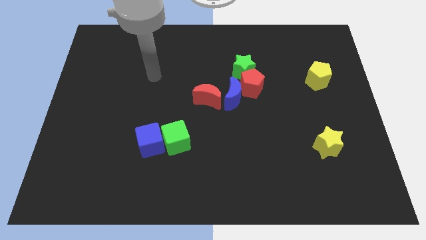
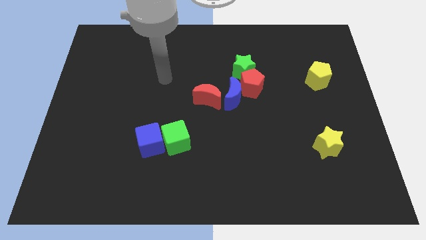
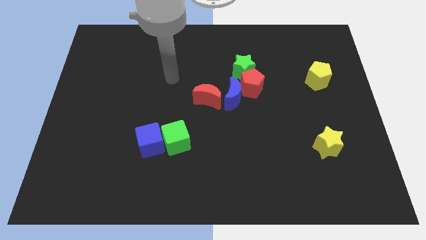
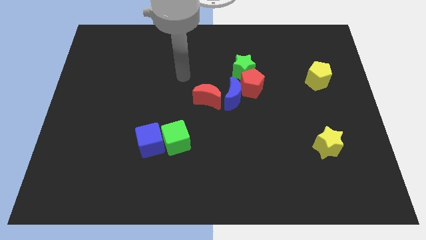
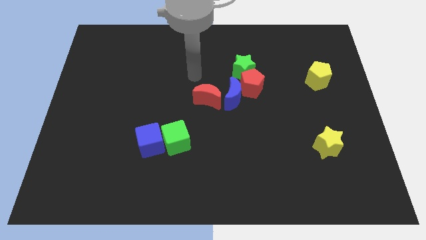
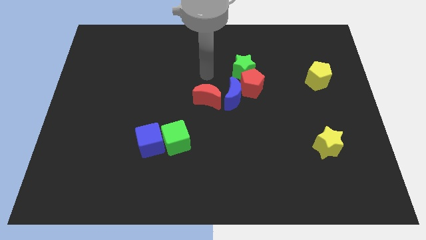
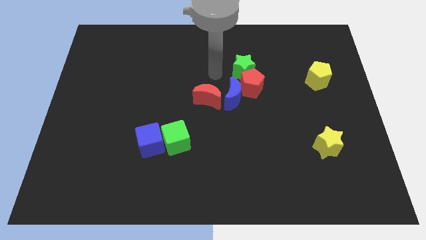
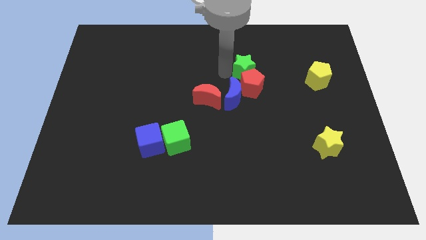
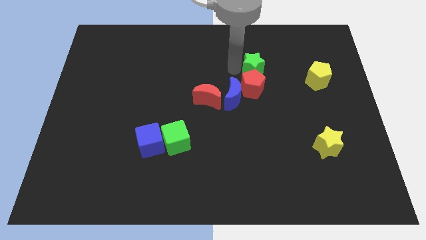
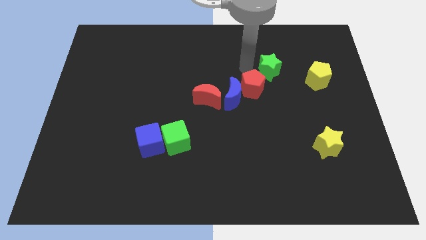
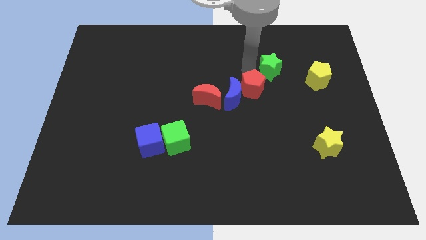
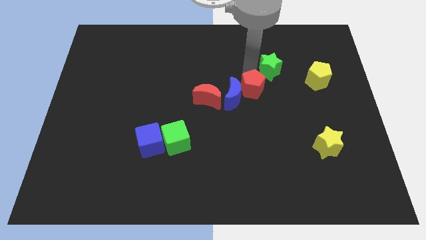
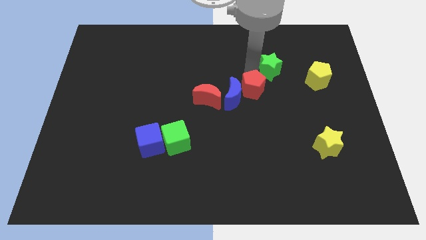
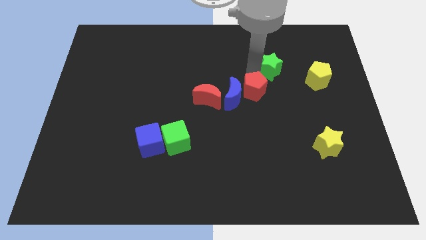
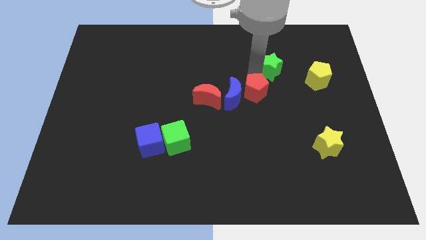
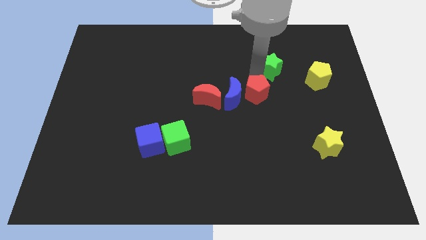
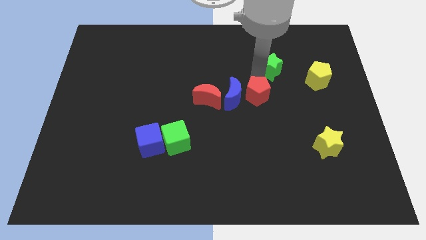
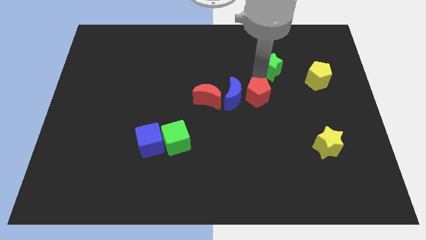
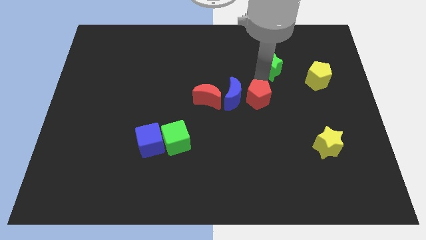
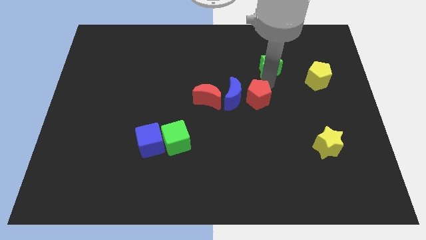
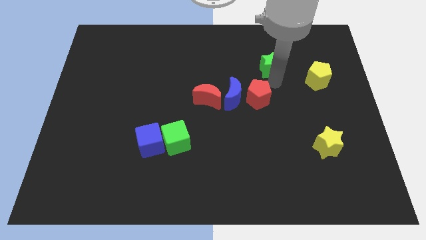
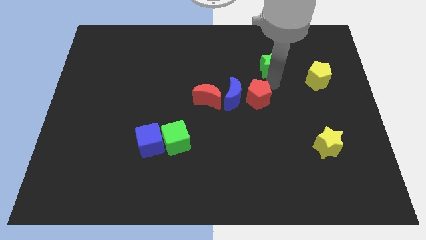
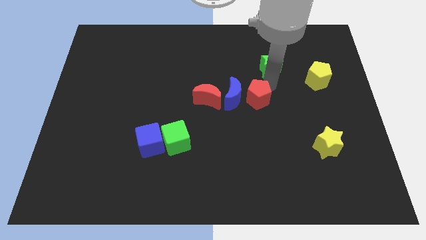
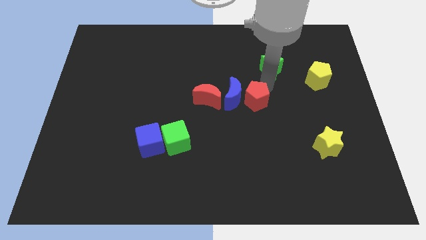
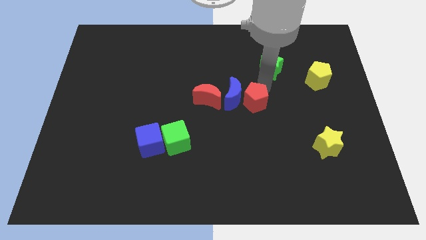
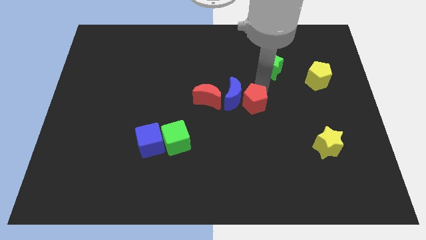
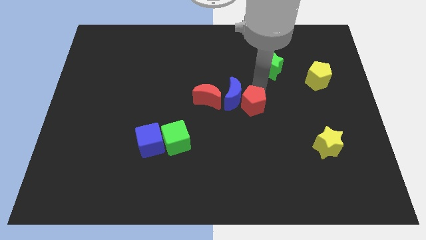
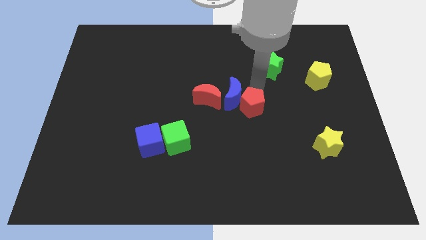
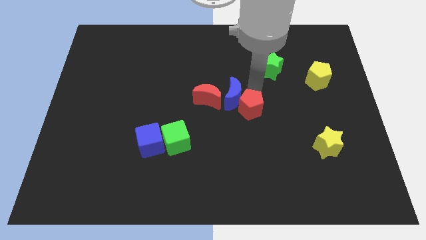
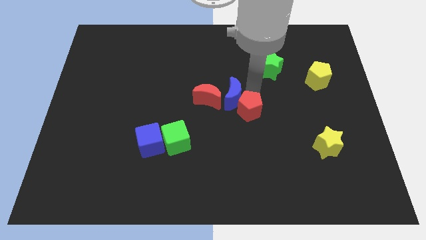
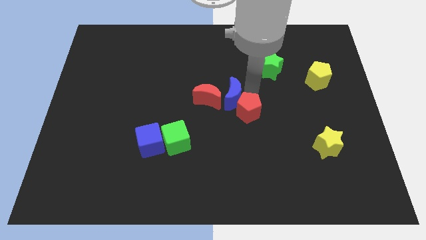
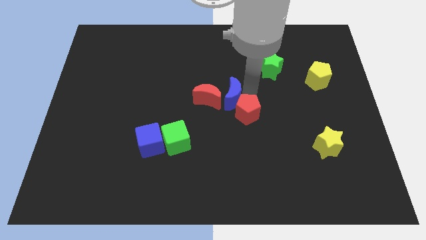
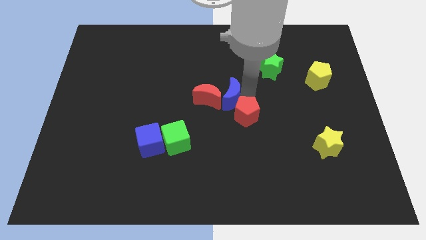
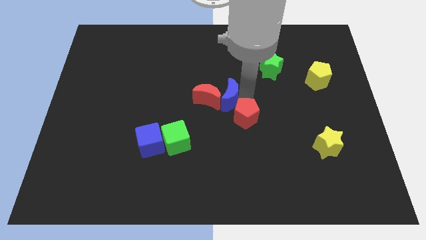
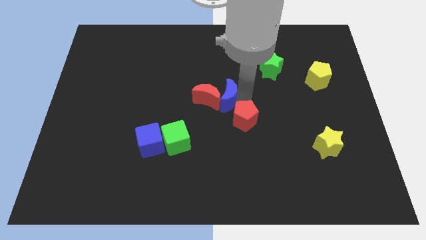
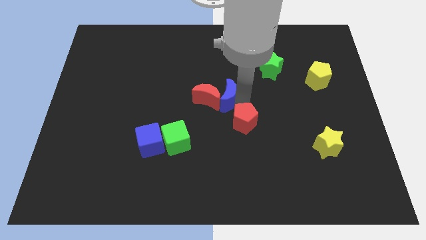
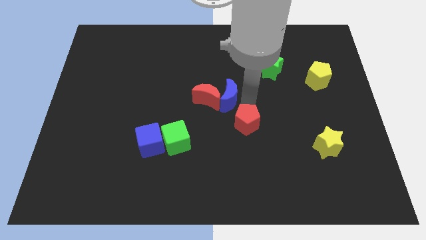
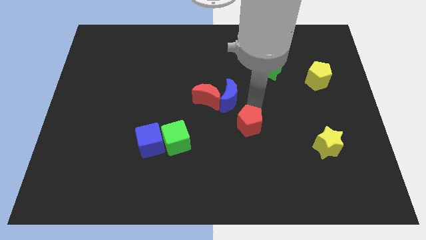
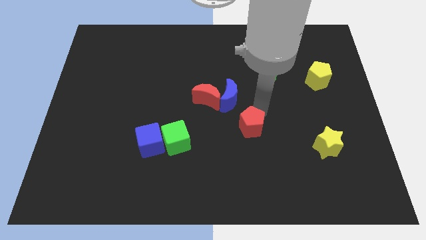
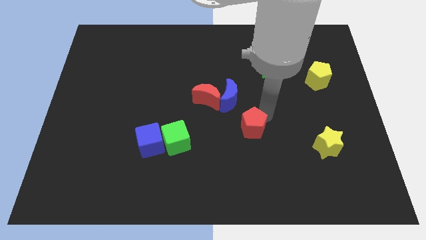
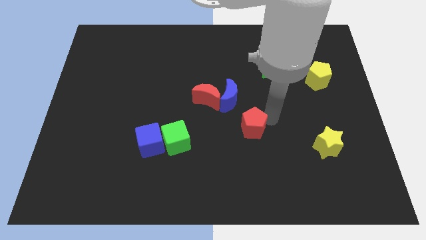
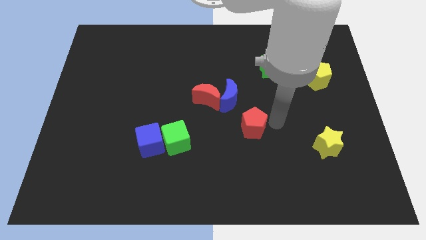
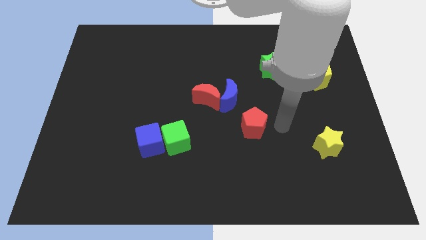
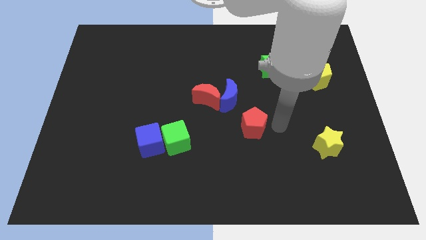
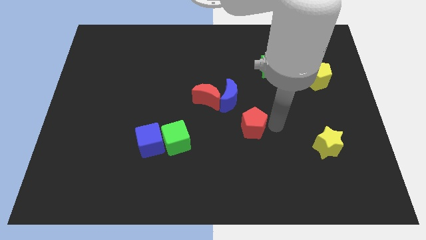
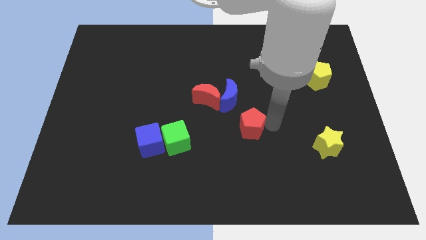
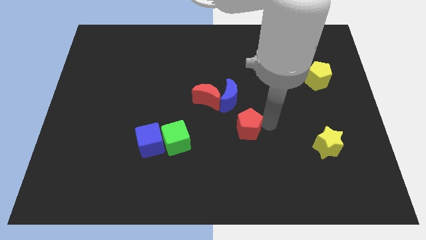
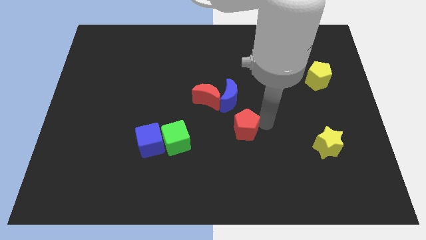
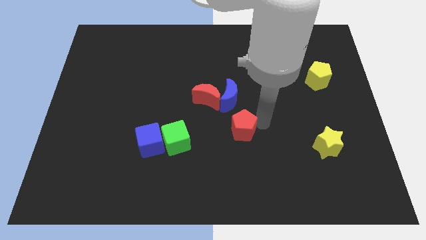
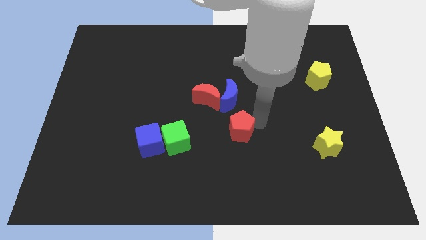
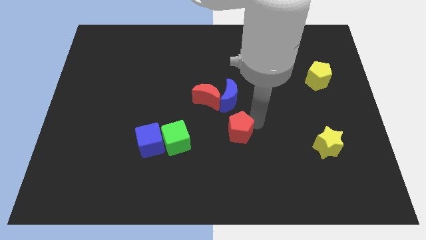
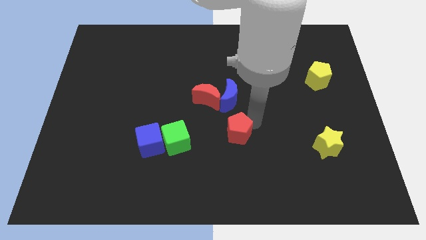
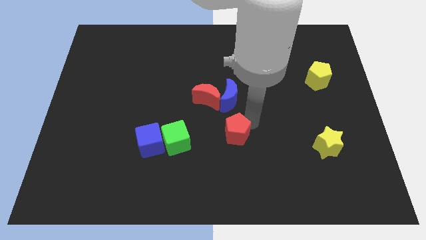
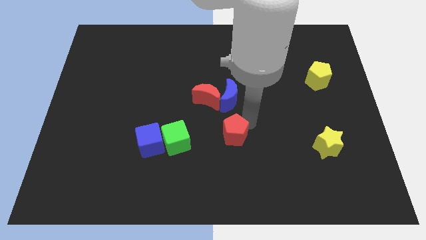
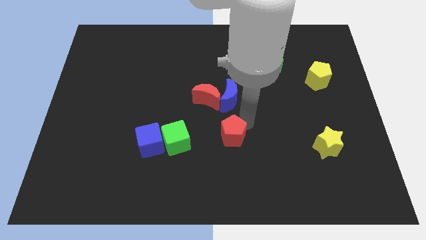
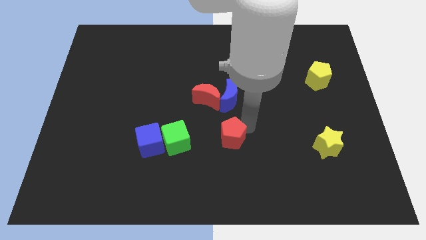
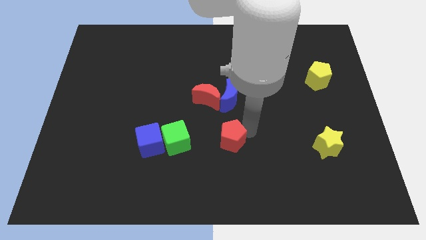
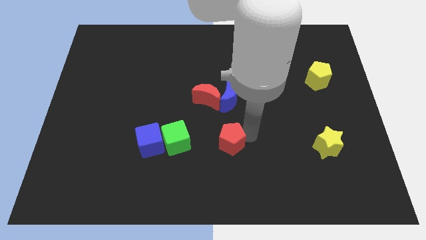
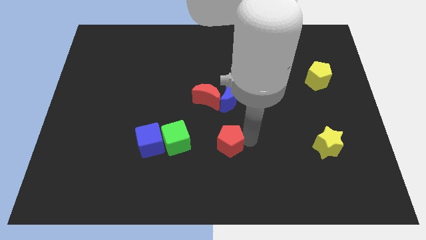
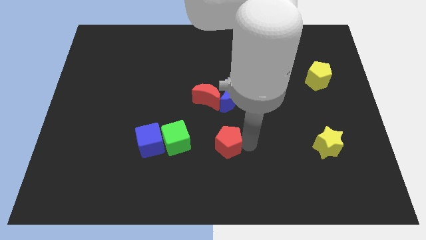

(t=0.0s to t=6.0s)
put the red pentagon below the red moon

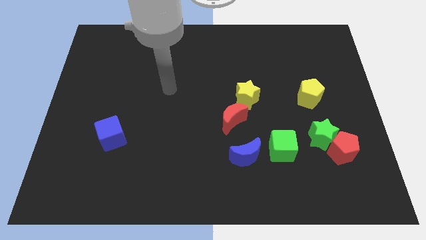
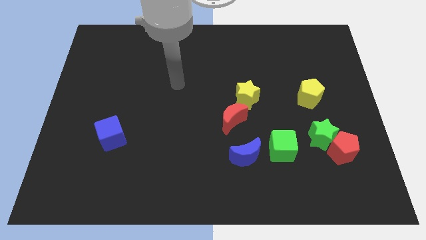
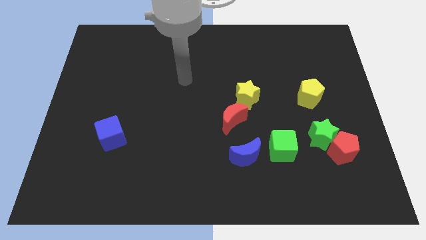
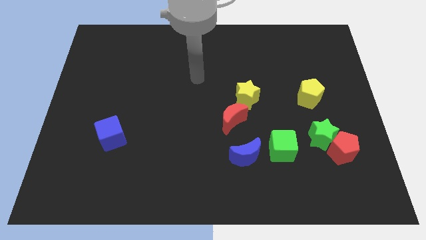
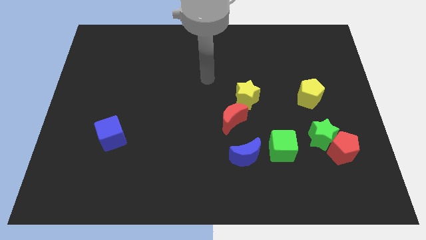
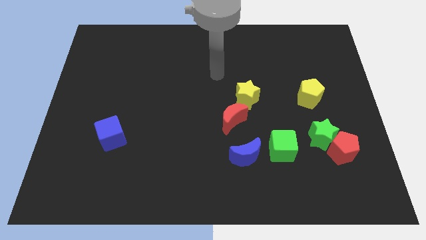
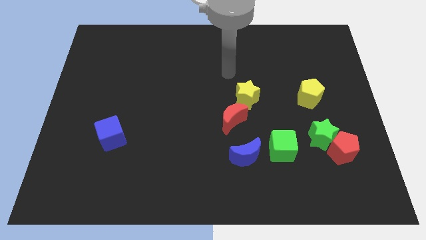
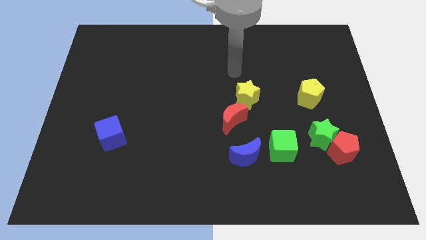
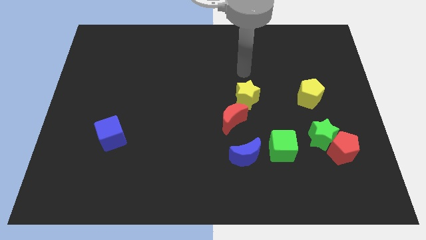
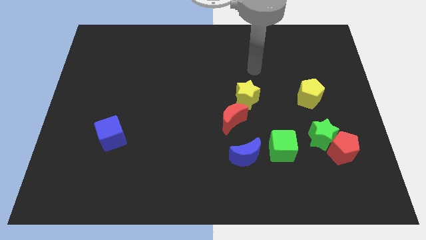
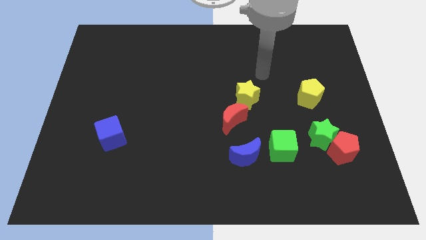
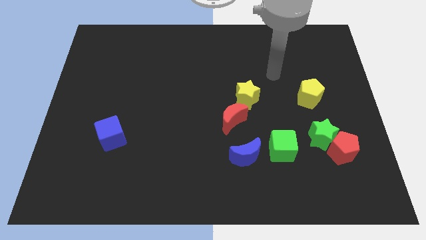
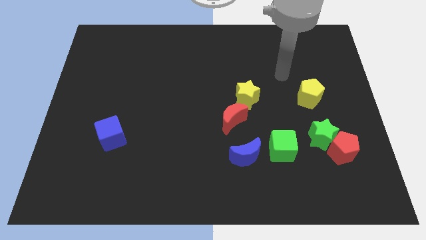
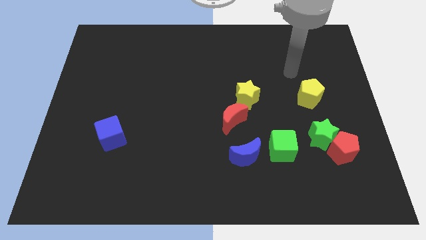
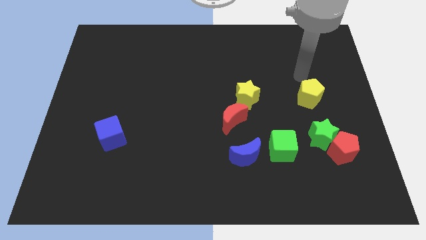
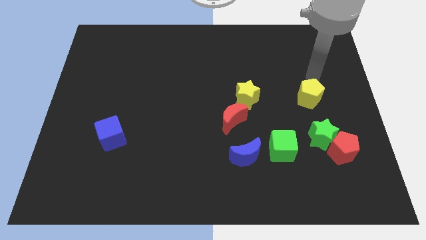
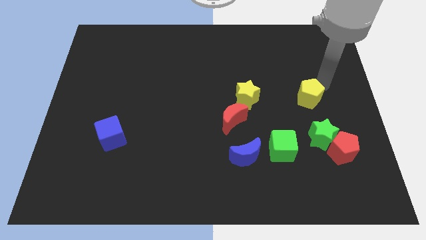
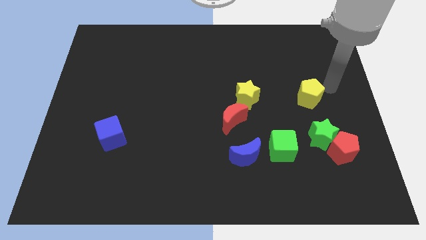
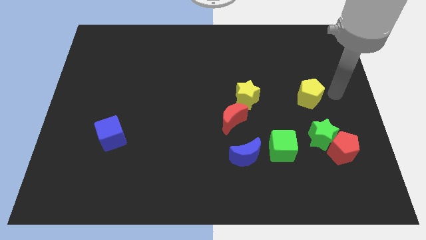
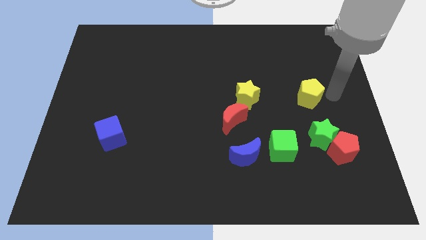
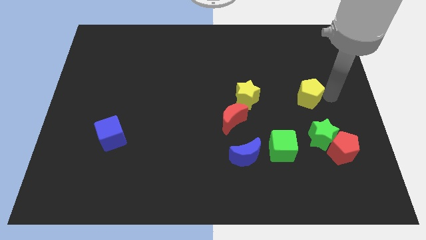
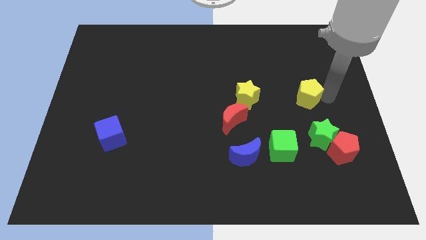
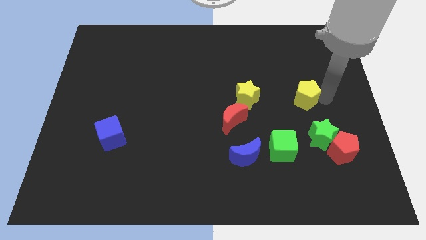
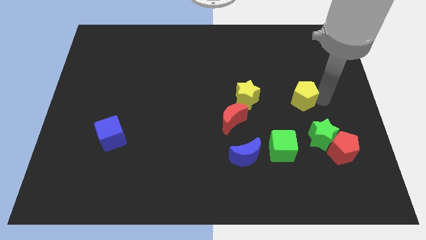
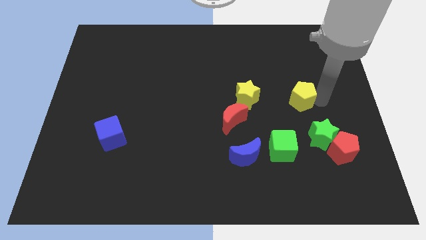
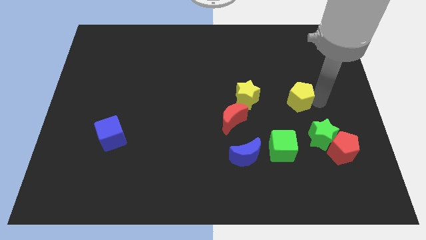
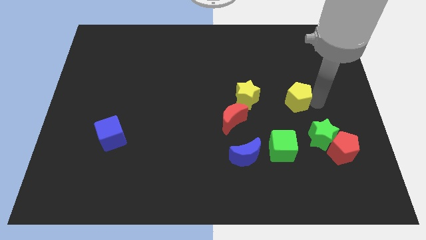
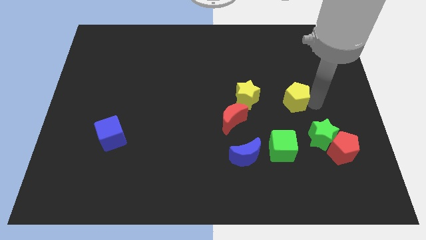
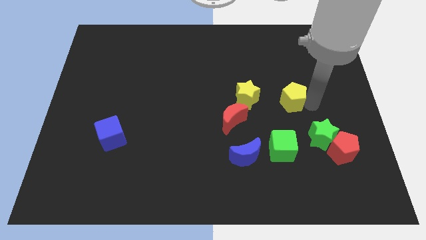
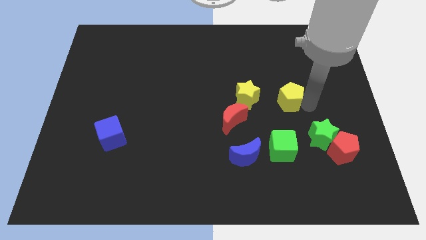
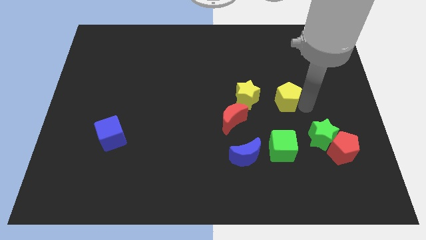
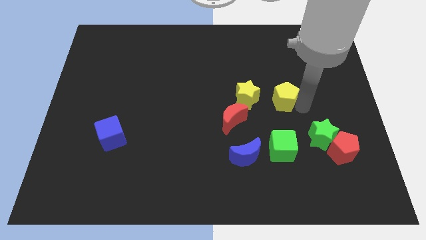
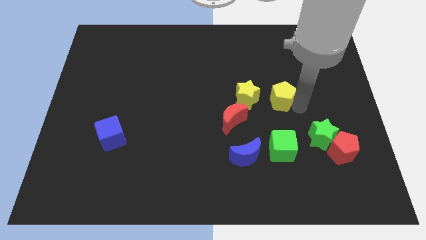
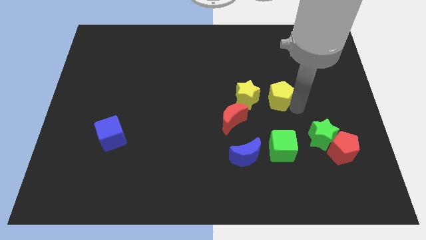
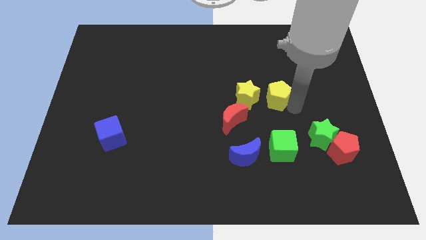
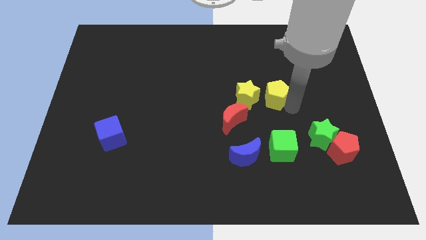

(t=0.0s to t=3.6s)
push the yellow pentagon to the top right of the red moon
